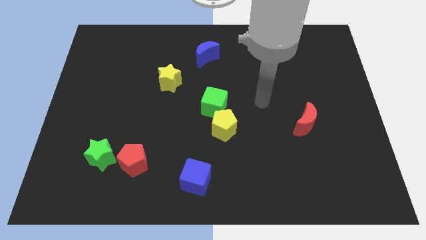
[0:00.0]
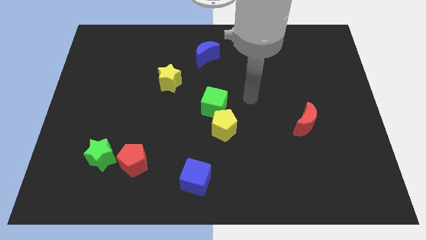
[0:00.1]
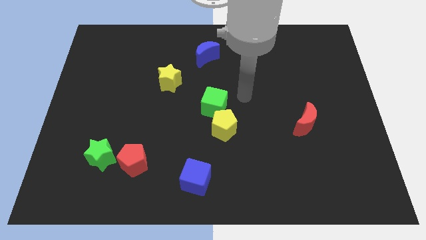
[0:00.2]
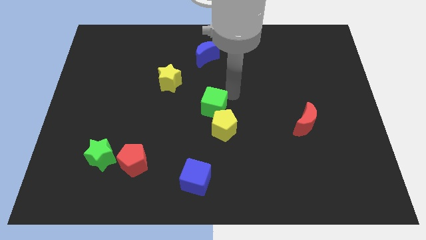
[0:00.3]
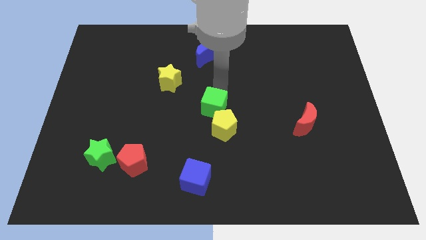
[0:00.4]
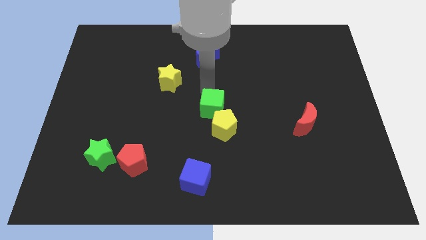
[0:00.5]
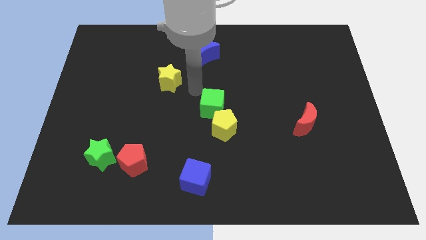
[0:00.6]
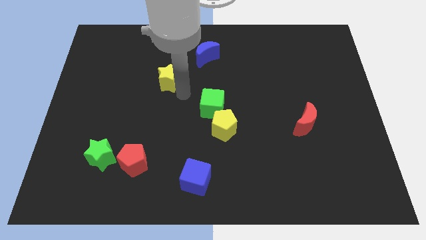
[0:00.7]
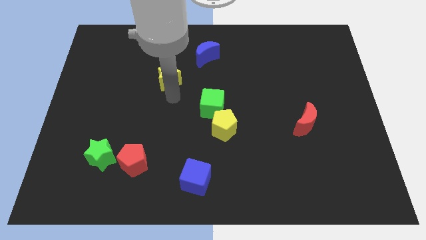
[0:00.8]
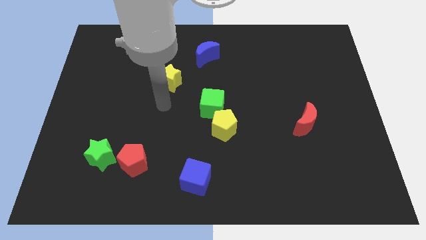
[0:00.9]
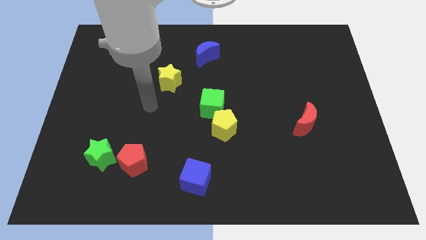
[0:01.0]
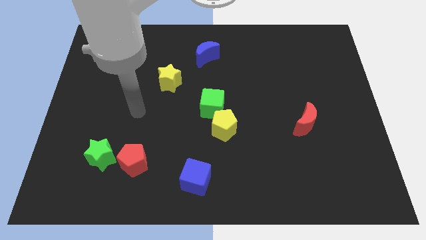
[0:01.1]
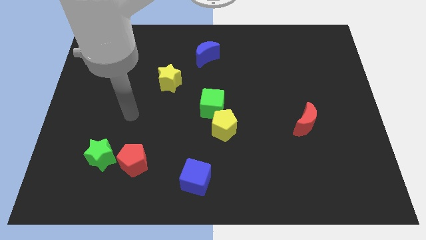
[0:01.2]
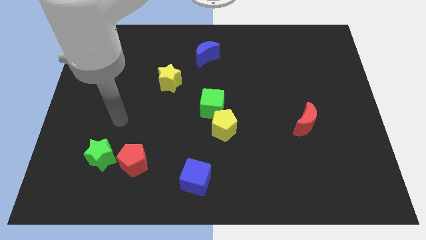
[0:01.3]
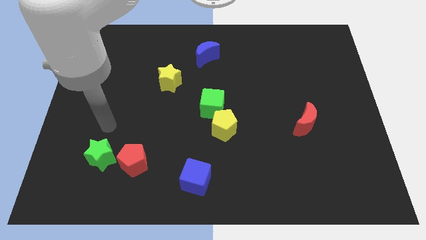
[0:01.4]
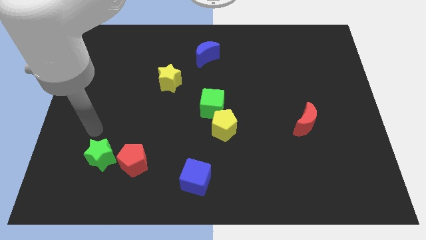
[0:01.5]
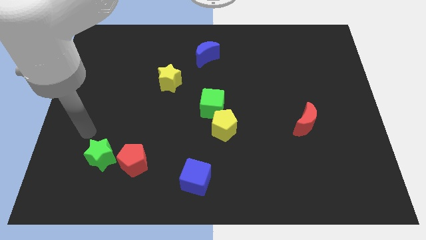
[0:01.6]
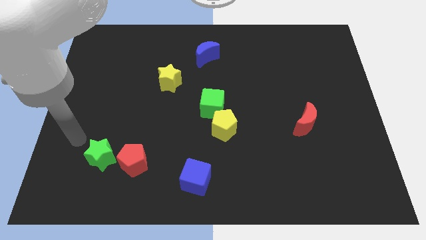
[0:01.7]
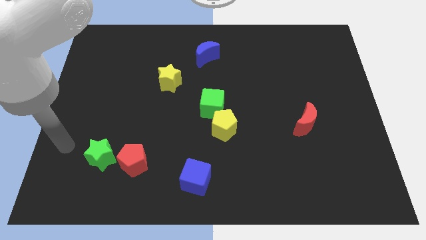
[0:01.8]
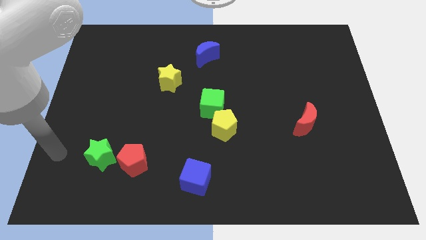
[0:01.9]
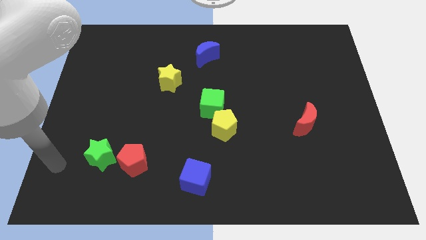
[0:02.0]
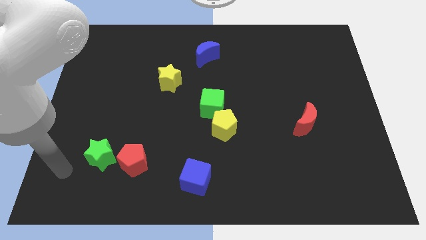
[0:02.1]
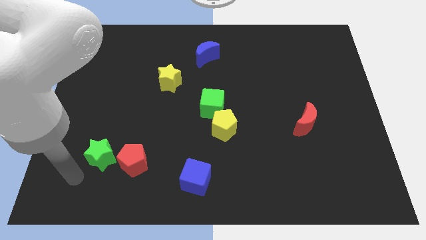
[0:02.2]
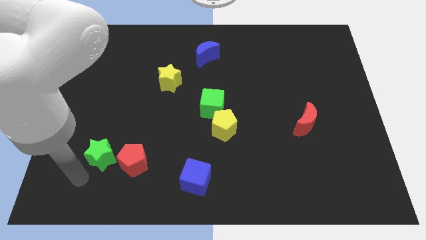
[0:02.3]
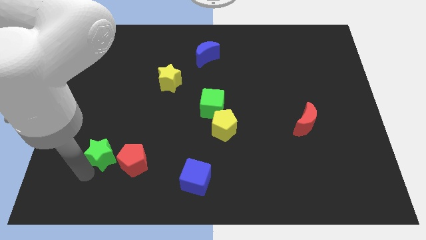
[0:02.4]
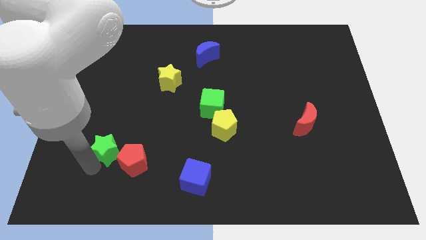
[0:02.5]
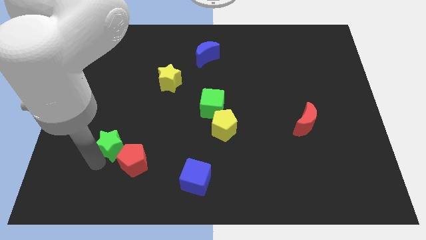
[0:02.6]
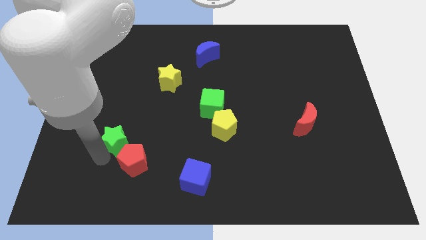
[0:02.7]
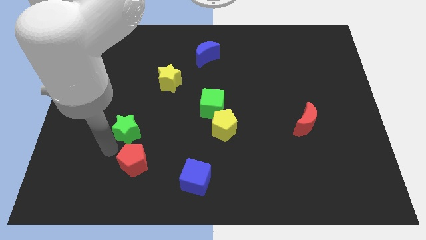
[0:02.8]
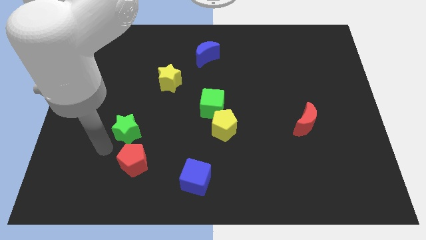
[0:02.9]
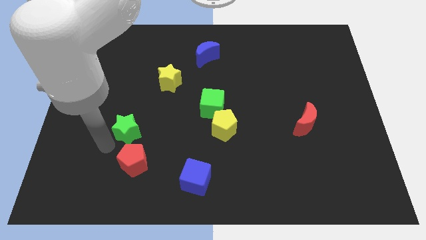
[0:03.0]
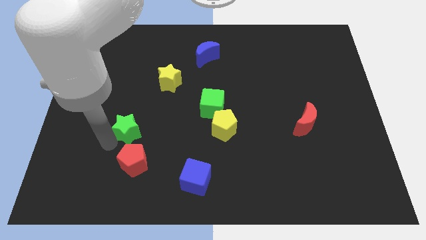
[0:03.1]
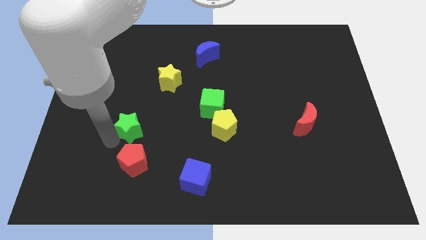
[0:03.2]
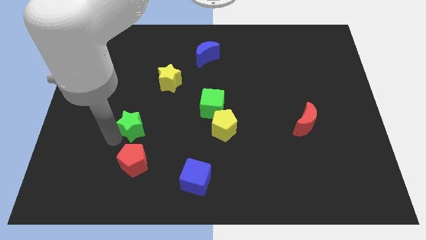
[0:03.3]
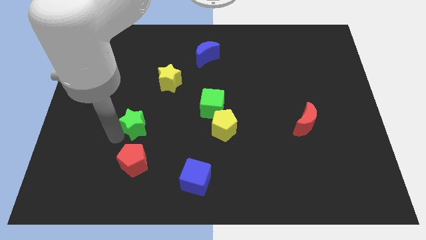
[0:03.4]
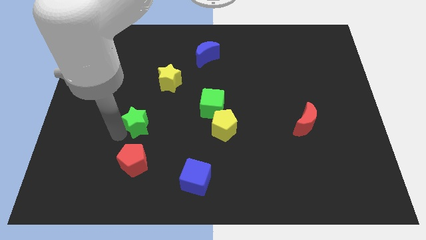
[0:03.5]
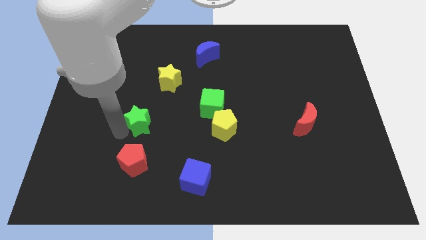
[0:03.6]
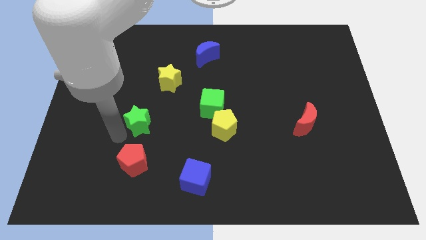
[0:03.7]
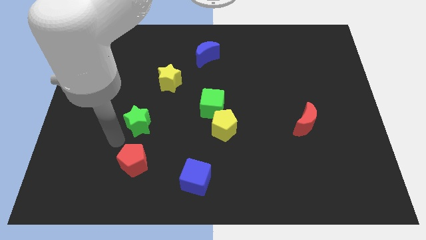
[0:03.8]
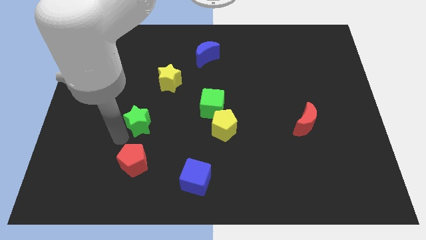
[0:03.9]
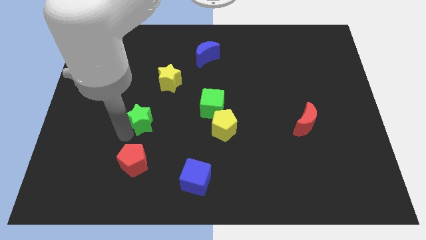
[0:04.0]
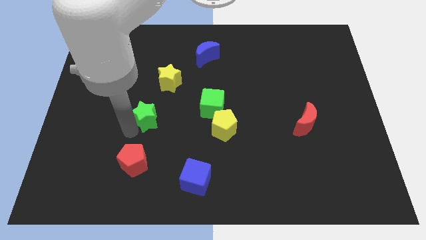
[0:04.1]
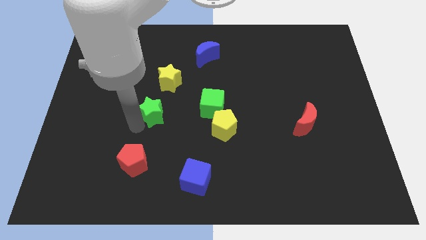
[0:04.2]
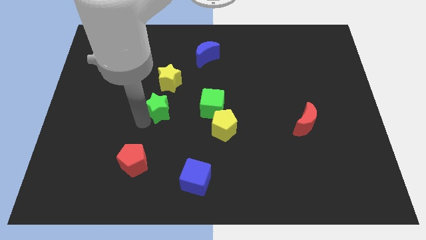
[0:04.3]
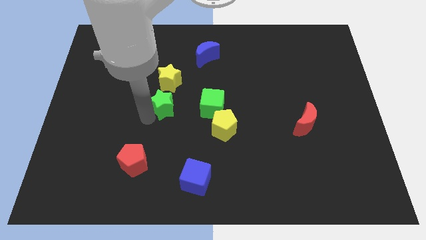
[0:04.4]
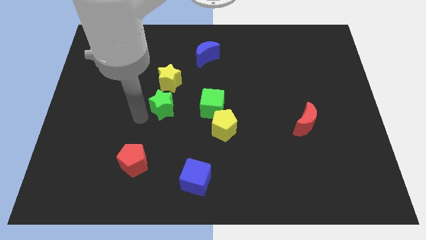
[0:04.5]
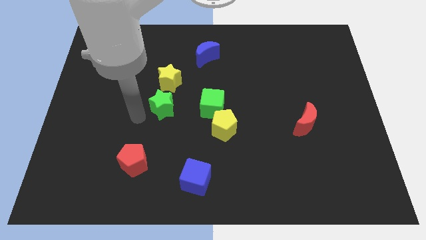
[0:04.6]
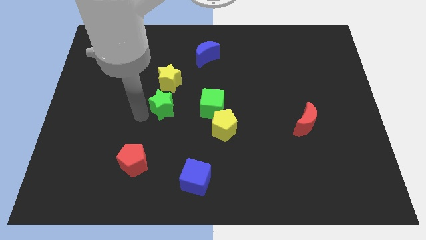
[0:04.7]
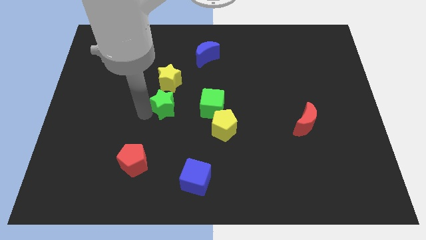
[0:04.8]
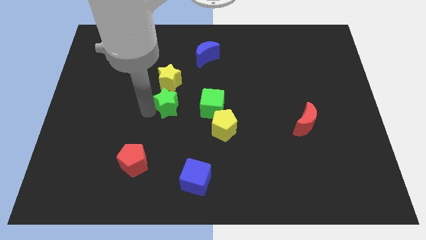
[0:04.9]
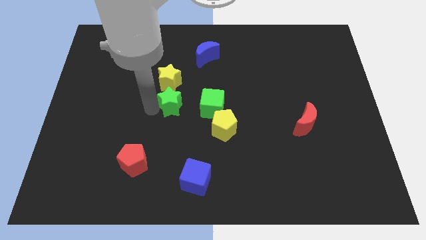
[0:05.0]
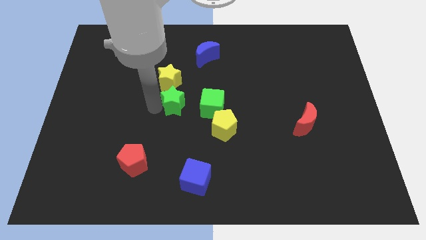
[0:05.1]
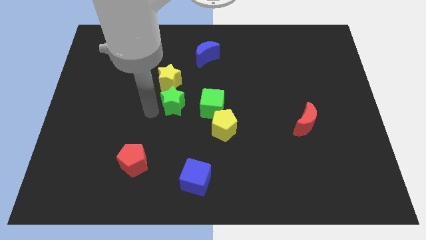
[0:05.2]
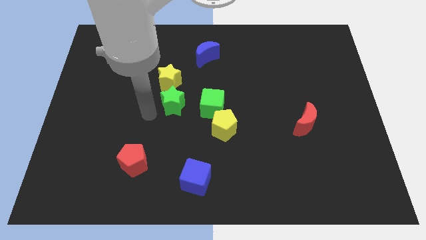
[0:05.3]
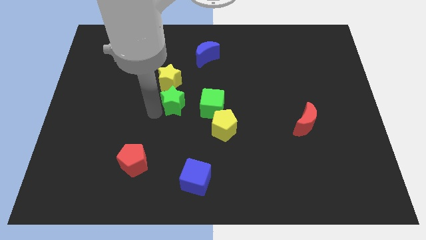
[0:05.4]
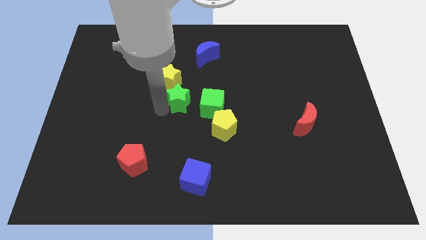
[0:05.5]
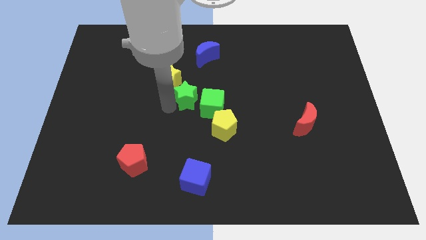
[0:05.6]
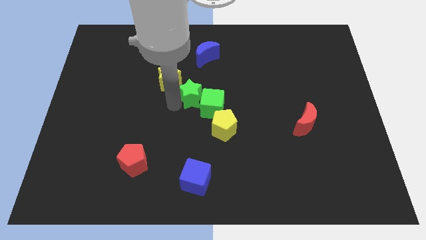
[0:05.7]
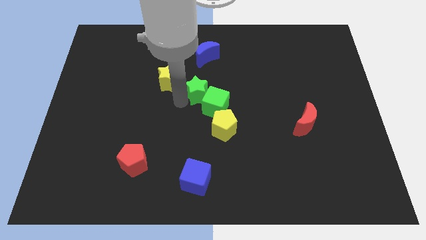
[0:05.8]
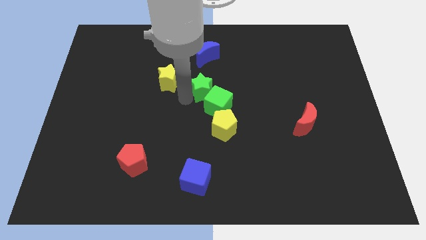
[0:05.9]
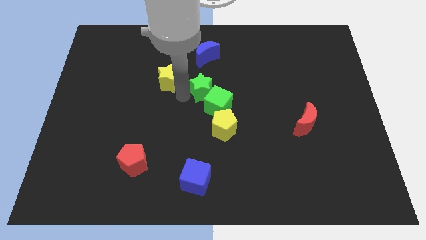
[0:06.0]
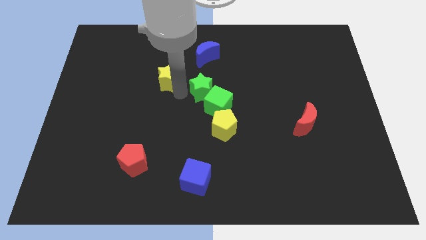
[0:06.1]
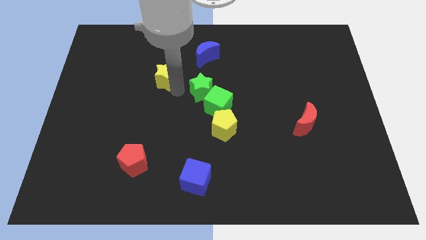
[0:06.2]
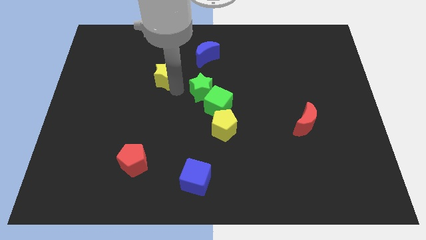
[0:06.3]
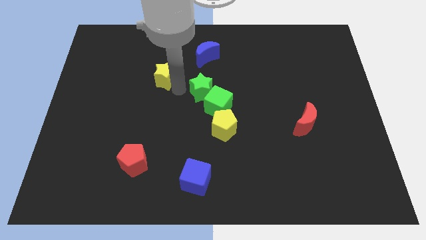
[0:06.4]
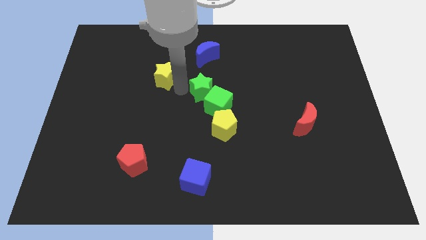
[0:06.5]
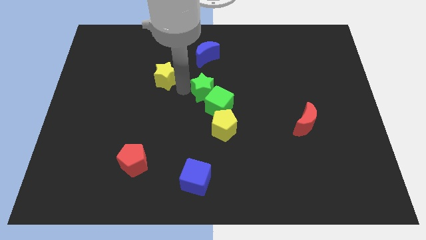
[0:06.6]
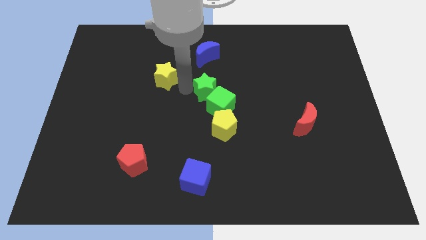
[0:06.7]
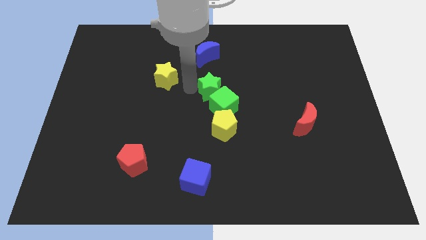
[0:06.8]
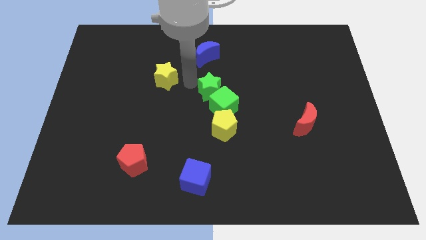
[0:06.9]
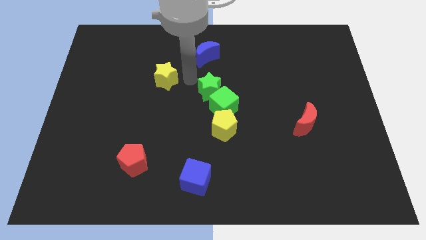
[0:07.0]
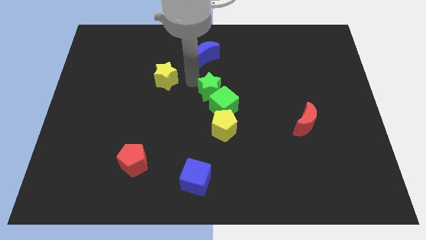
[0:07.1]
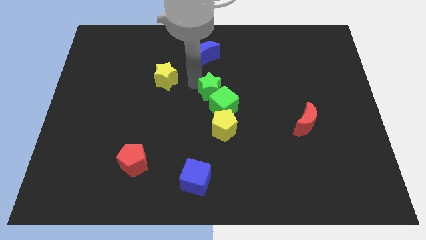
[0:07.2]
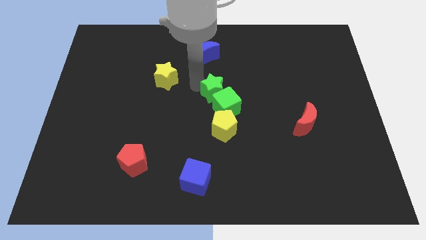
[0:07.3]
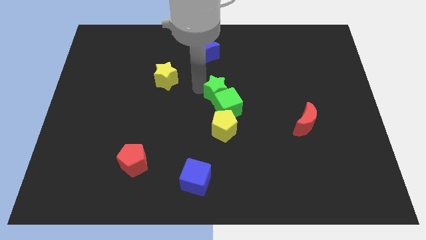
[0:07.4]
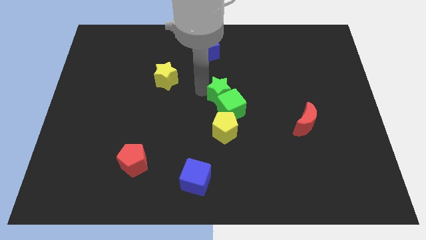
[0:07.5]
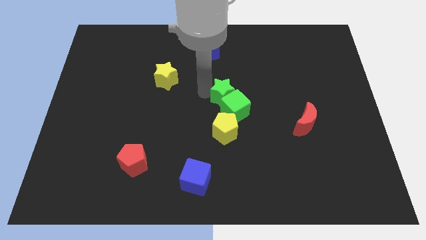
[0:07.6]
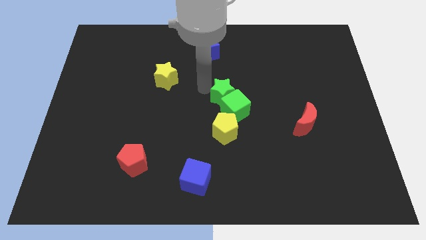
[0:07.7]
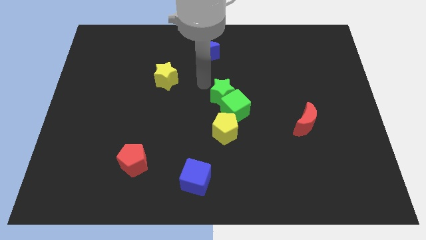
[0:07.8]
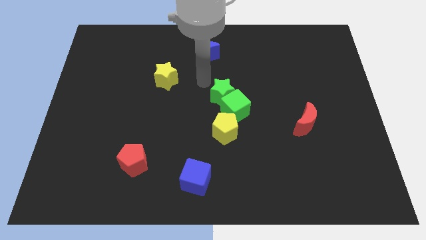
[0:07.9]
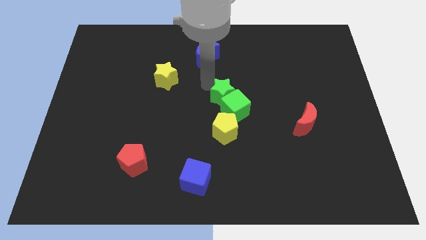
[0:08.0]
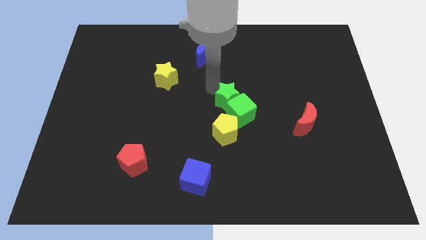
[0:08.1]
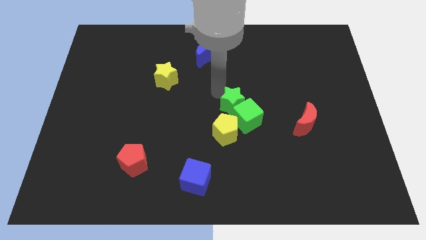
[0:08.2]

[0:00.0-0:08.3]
move the green star to the top right of the yellow pentagon
